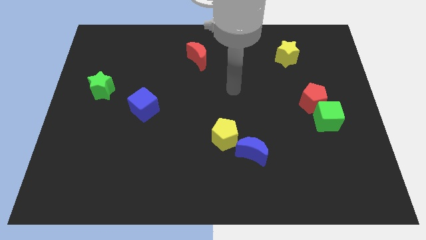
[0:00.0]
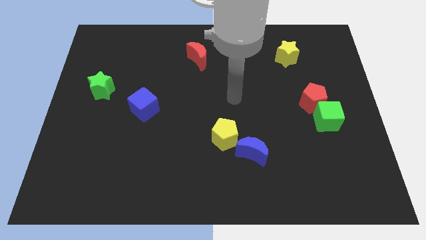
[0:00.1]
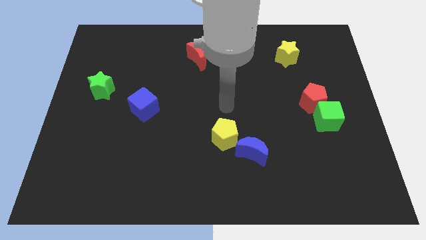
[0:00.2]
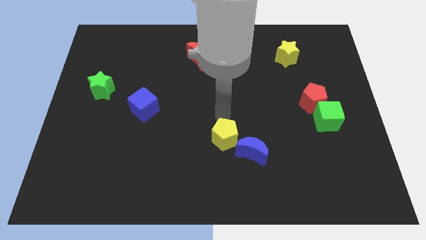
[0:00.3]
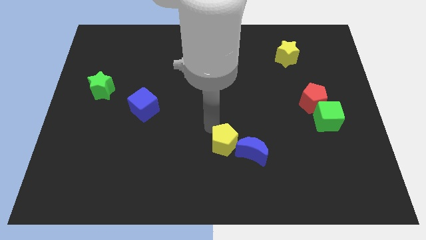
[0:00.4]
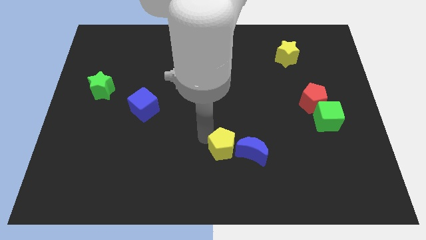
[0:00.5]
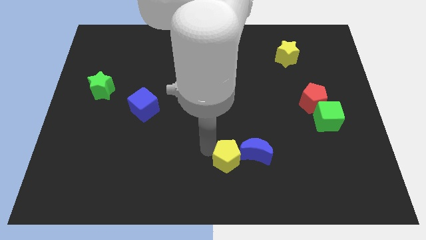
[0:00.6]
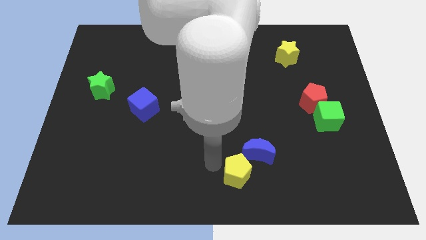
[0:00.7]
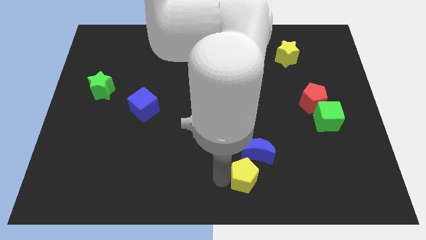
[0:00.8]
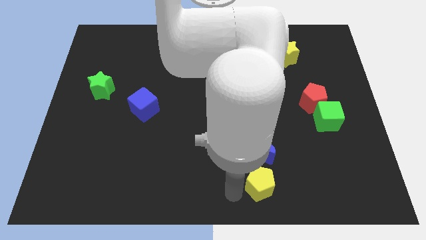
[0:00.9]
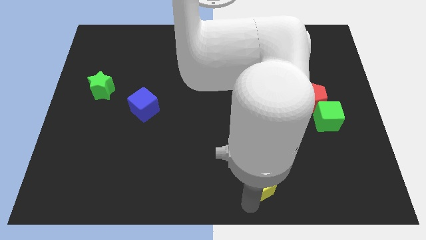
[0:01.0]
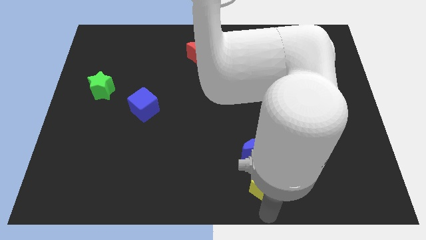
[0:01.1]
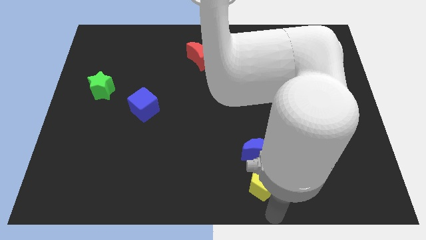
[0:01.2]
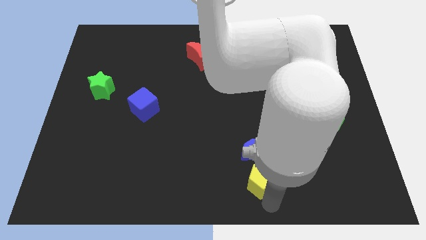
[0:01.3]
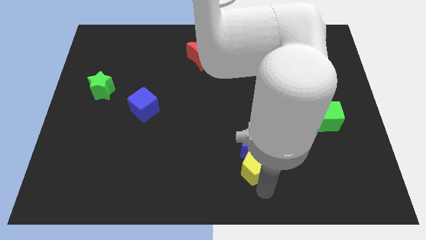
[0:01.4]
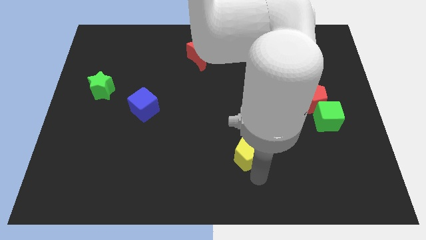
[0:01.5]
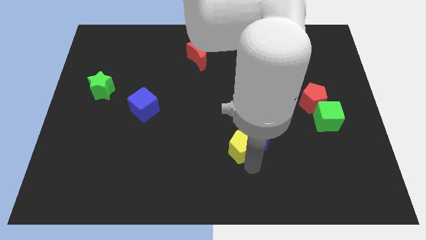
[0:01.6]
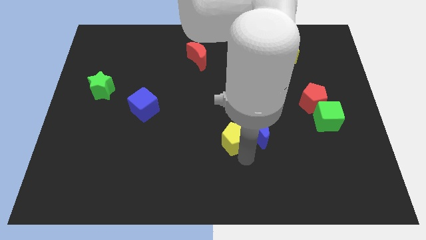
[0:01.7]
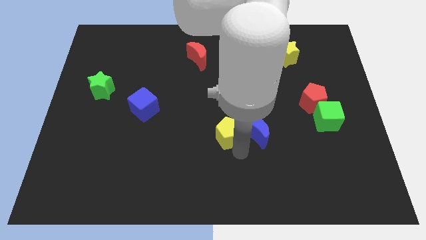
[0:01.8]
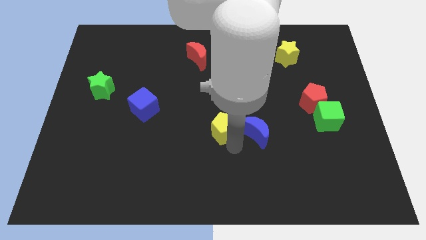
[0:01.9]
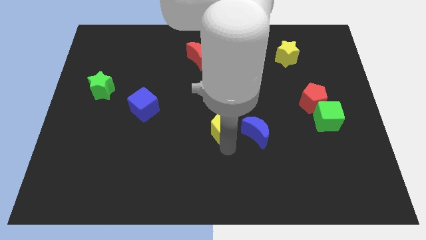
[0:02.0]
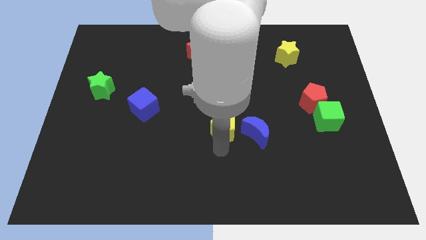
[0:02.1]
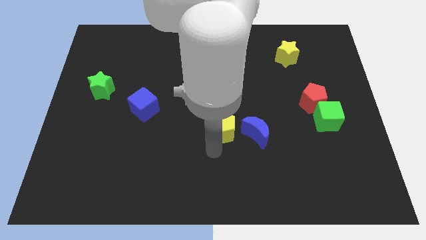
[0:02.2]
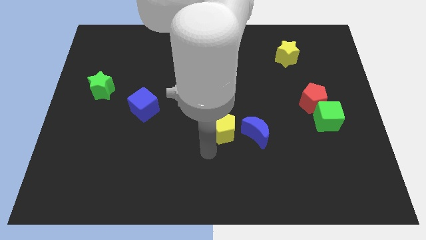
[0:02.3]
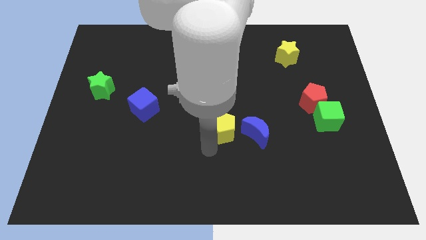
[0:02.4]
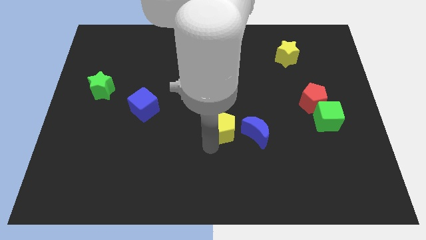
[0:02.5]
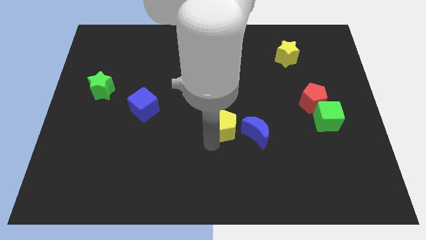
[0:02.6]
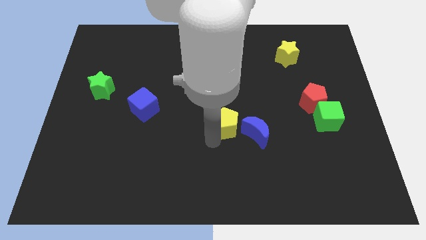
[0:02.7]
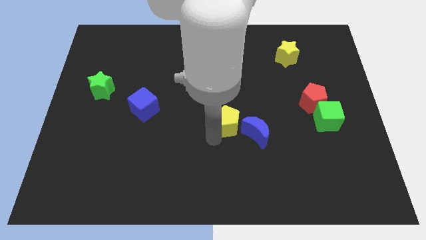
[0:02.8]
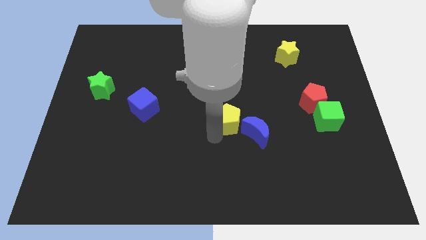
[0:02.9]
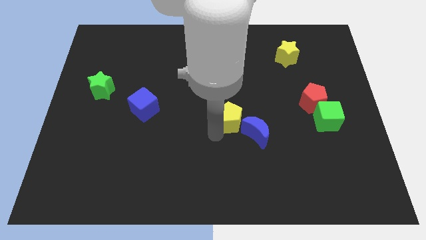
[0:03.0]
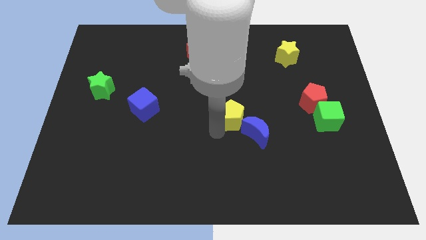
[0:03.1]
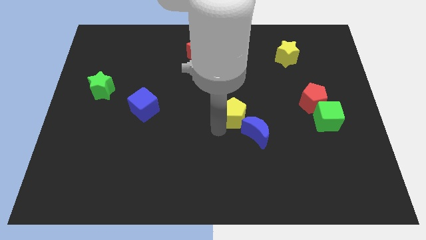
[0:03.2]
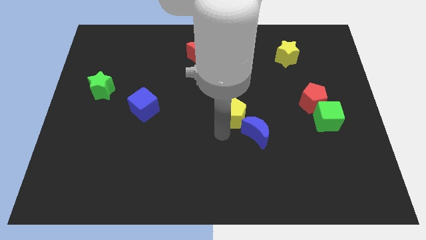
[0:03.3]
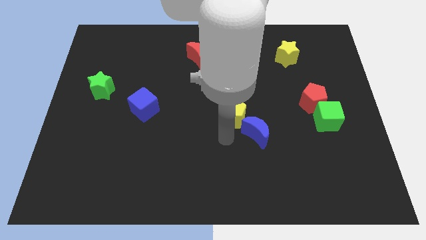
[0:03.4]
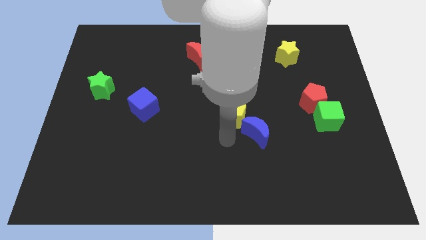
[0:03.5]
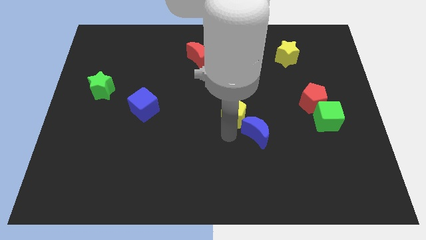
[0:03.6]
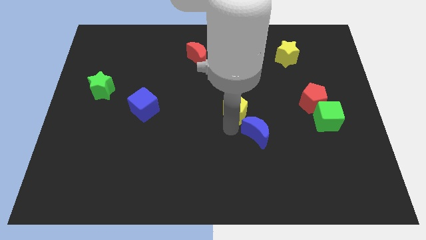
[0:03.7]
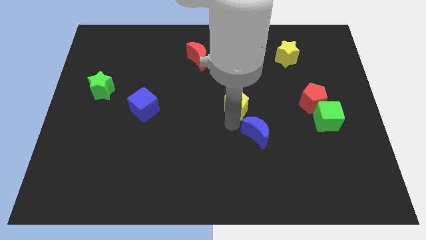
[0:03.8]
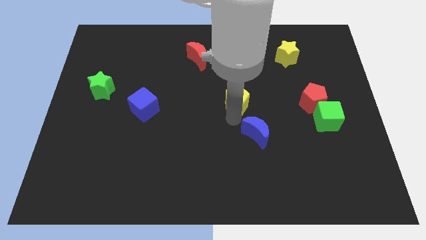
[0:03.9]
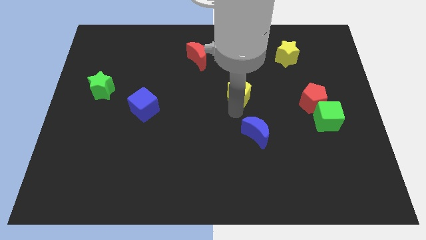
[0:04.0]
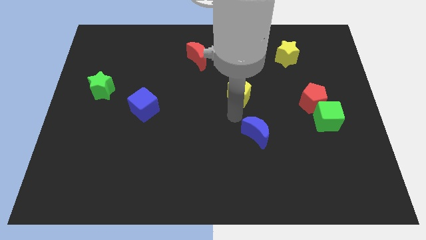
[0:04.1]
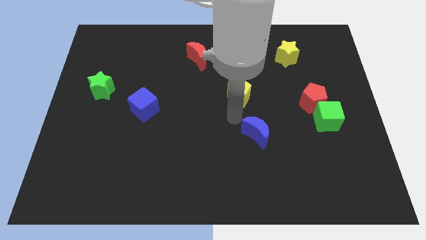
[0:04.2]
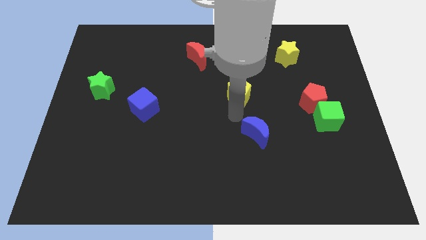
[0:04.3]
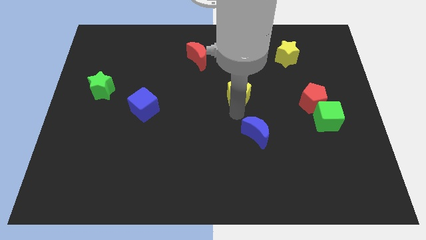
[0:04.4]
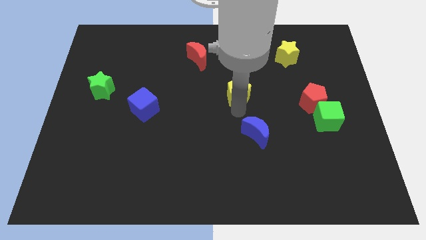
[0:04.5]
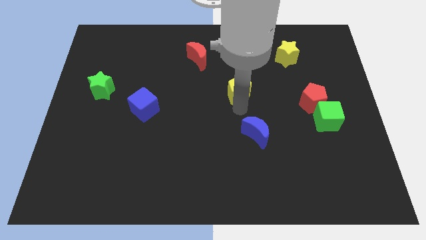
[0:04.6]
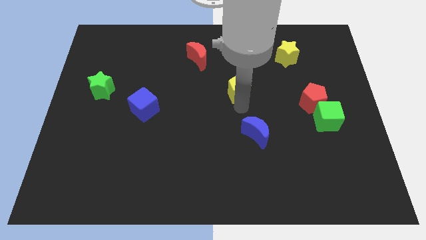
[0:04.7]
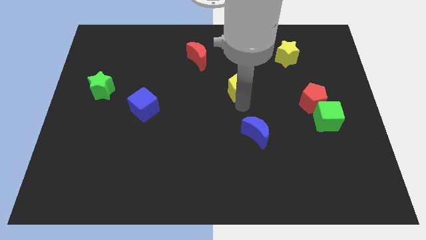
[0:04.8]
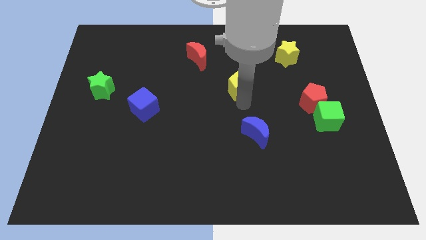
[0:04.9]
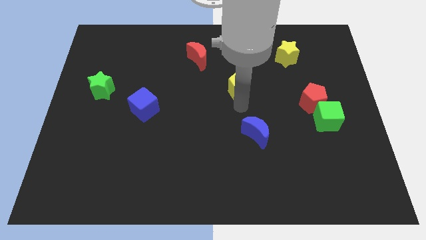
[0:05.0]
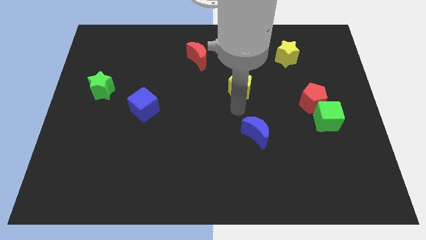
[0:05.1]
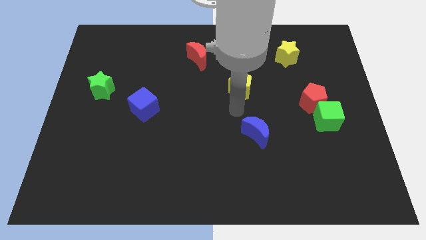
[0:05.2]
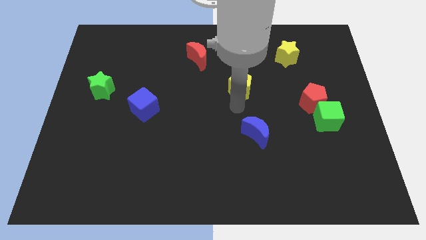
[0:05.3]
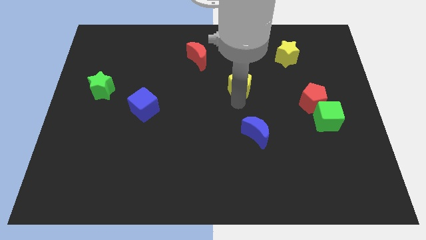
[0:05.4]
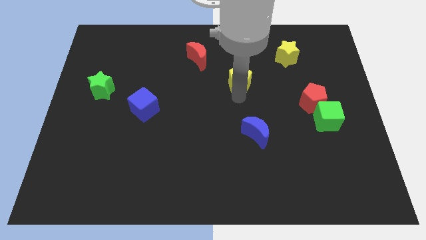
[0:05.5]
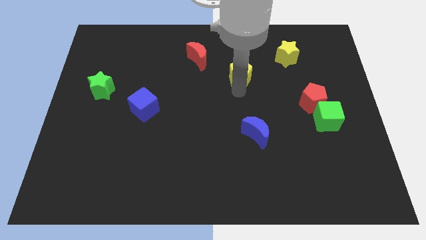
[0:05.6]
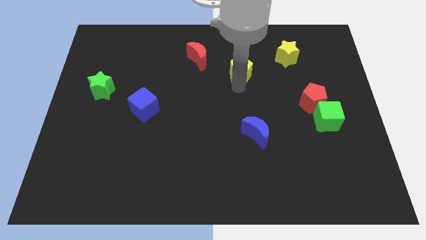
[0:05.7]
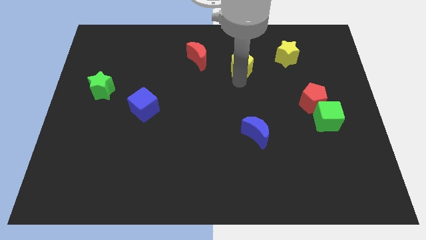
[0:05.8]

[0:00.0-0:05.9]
push the yellow pentagon left of the yellow star

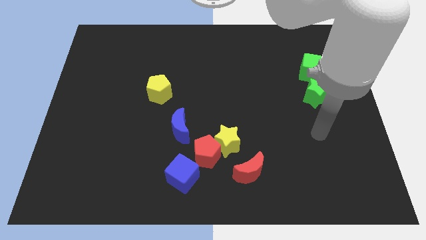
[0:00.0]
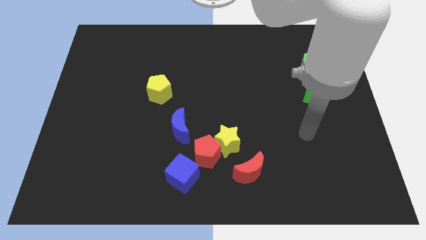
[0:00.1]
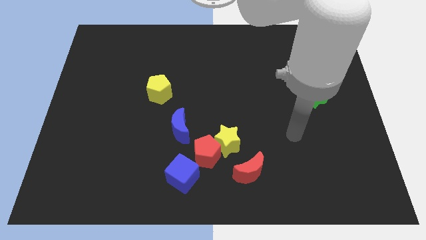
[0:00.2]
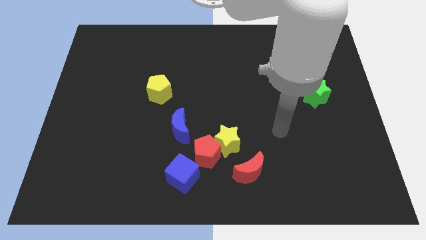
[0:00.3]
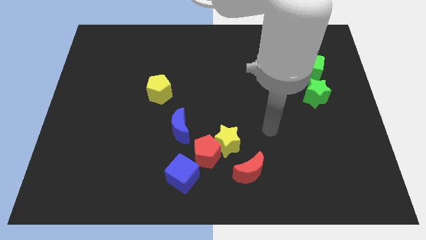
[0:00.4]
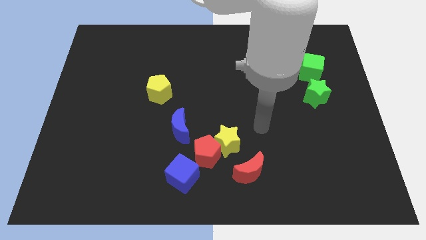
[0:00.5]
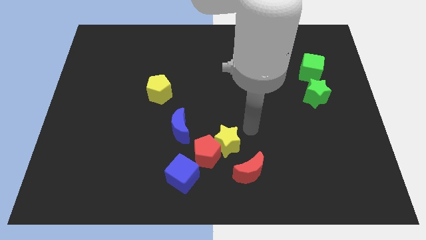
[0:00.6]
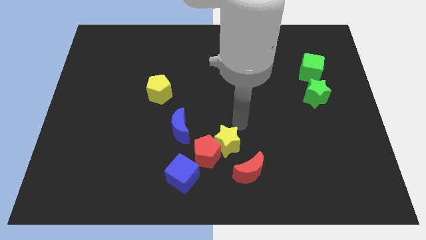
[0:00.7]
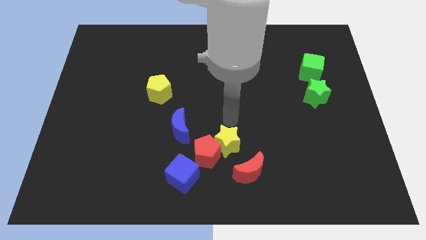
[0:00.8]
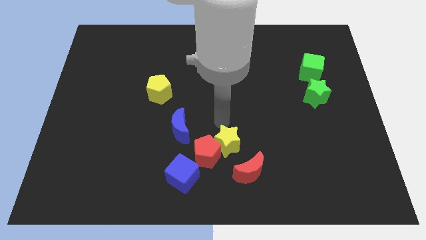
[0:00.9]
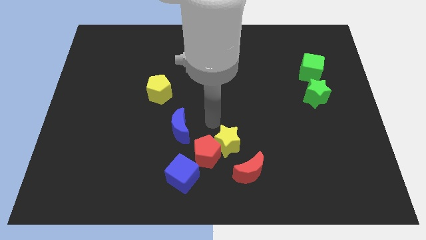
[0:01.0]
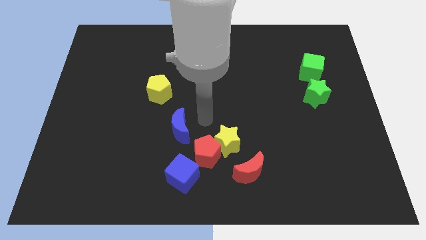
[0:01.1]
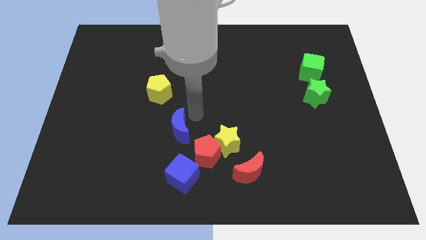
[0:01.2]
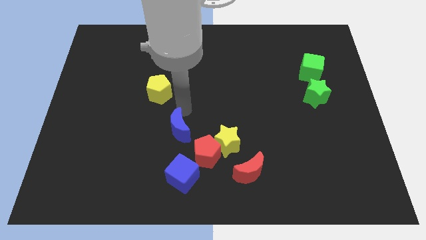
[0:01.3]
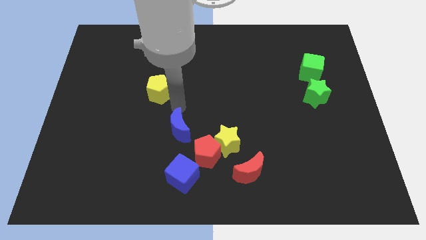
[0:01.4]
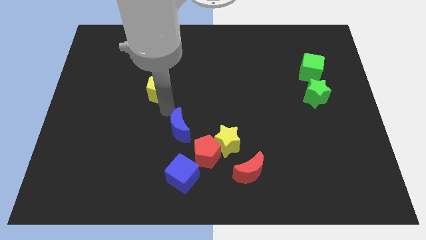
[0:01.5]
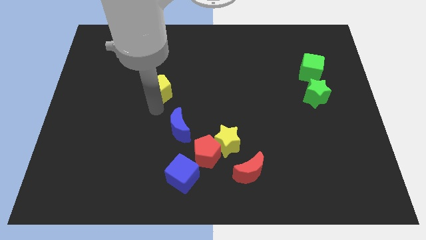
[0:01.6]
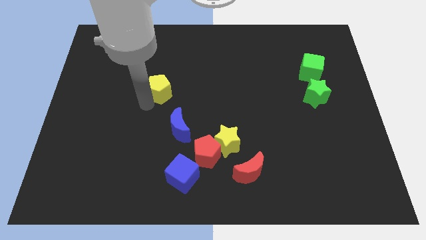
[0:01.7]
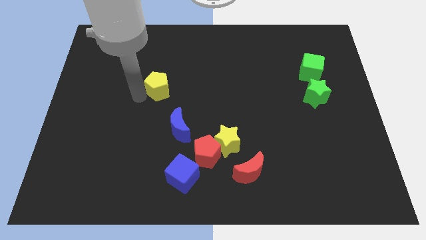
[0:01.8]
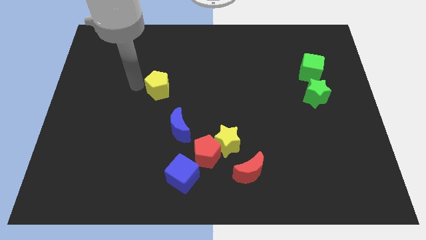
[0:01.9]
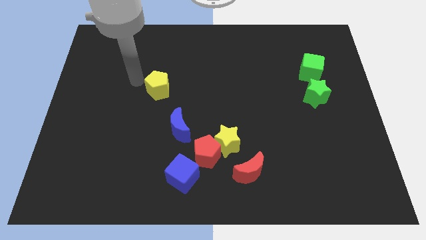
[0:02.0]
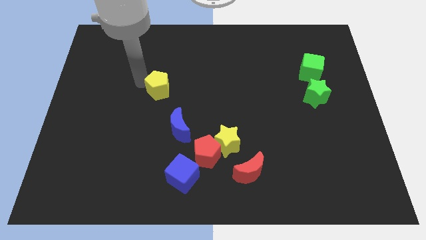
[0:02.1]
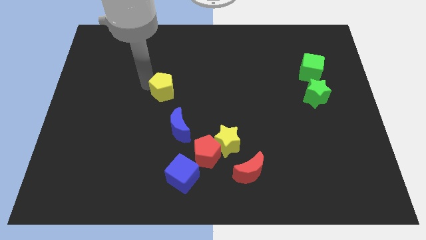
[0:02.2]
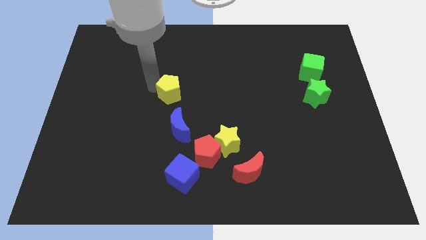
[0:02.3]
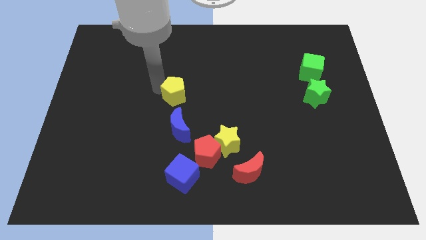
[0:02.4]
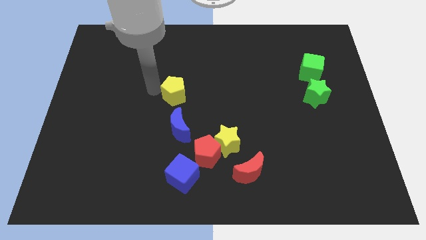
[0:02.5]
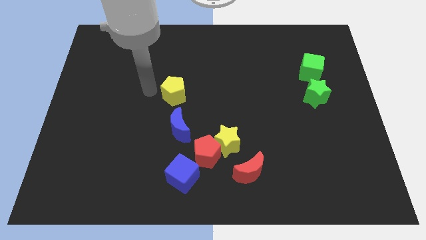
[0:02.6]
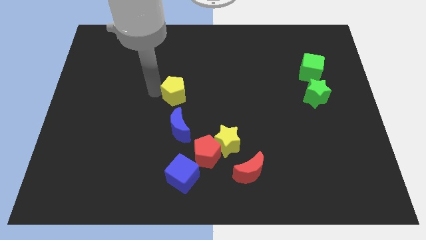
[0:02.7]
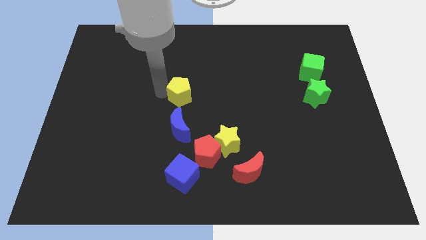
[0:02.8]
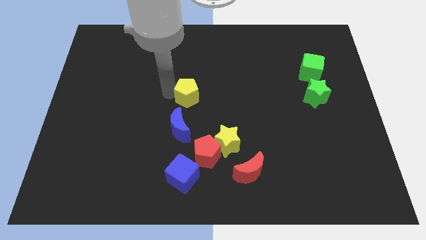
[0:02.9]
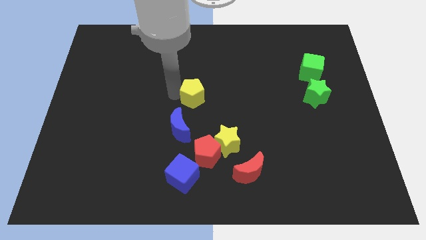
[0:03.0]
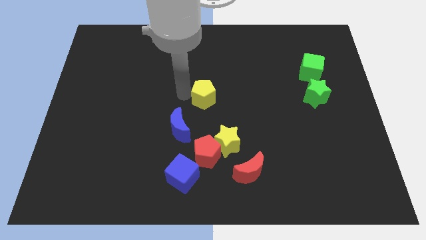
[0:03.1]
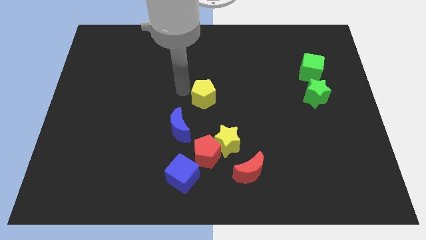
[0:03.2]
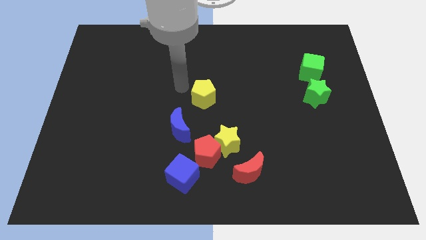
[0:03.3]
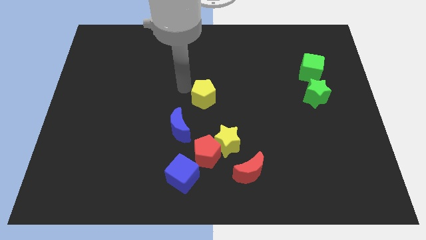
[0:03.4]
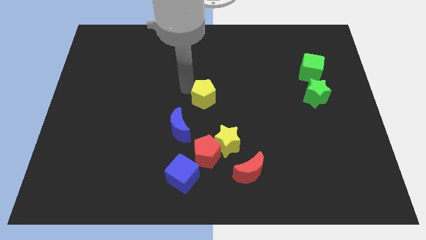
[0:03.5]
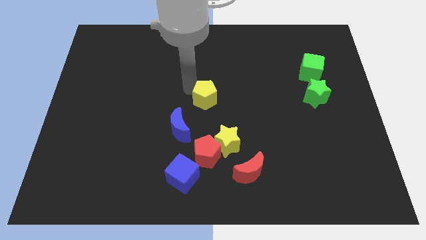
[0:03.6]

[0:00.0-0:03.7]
put the yellow pentagon to the top of the yellow star
